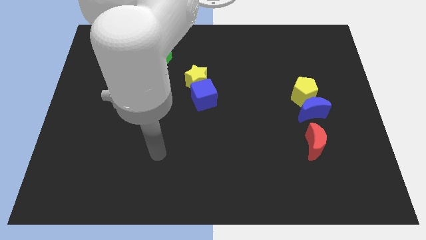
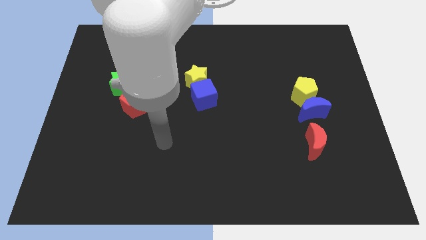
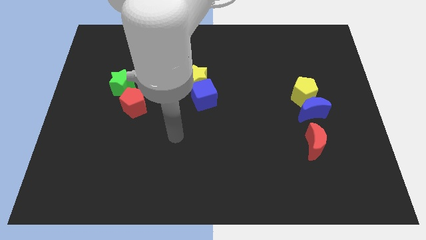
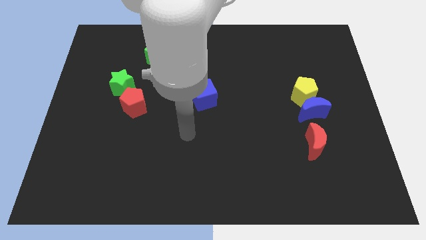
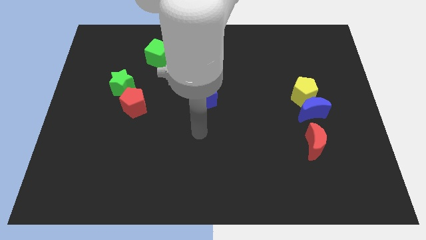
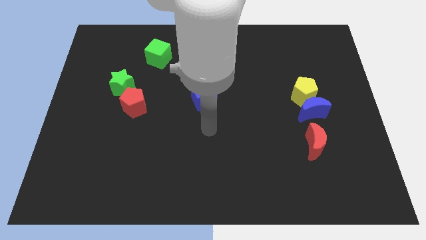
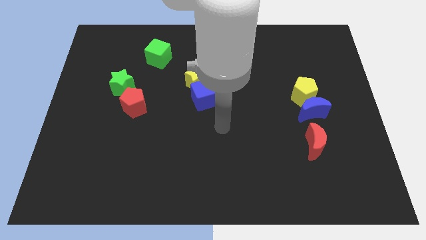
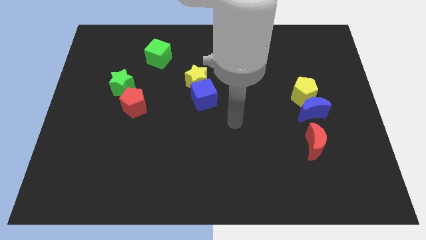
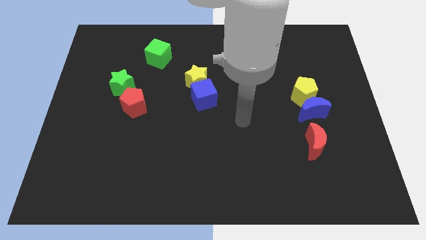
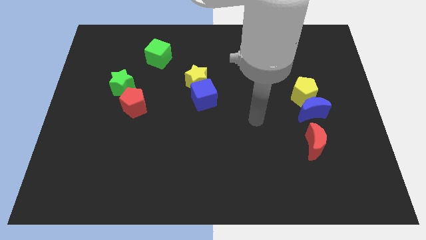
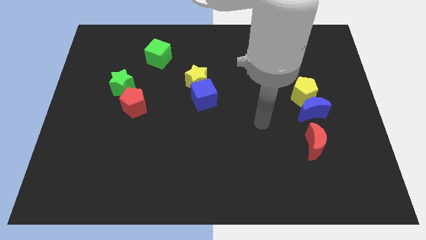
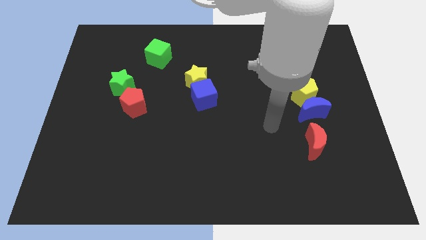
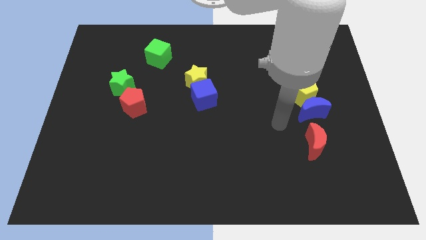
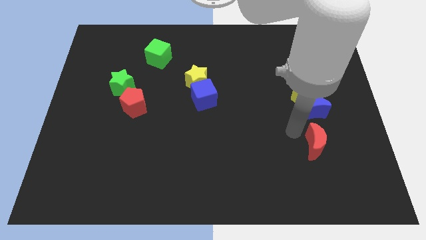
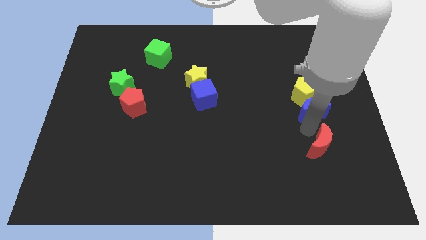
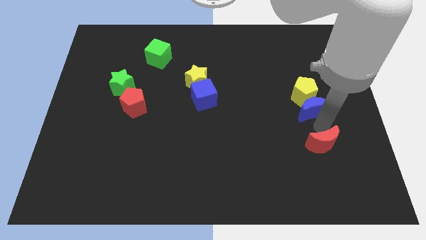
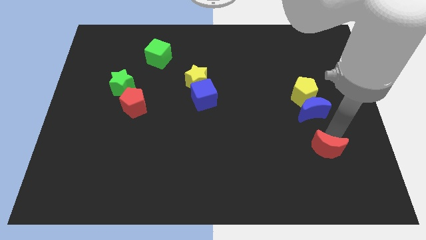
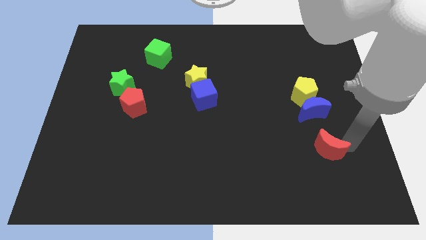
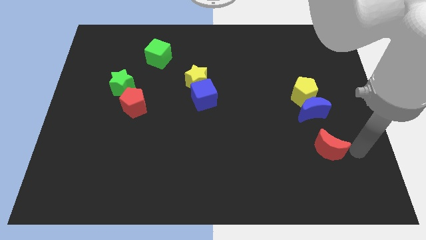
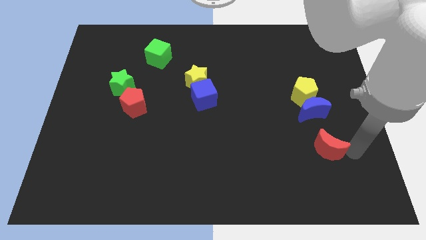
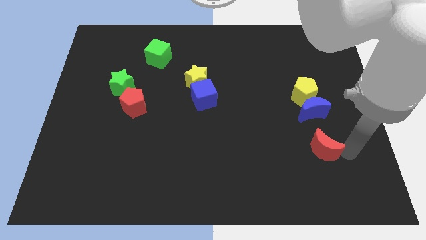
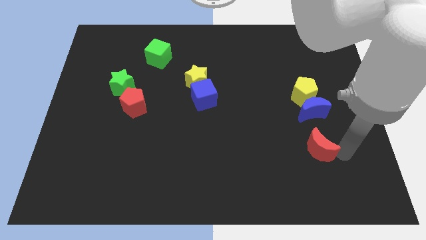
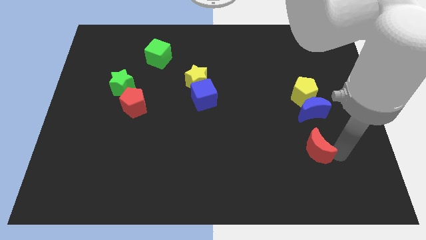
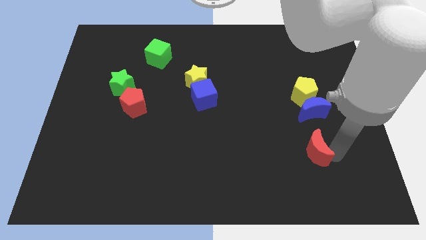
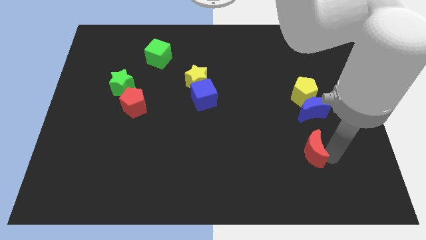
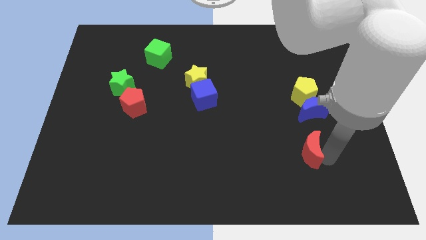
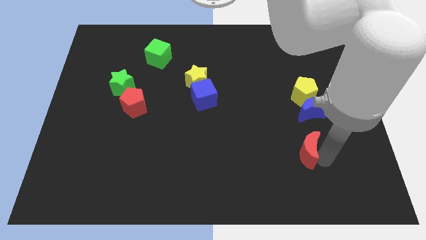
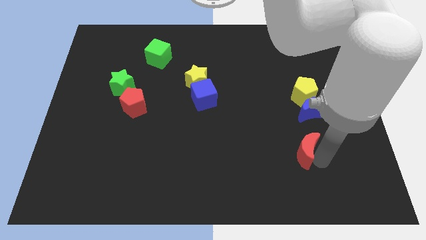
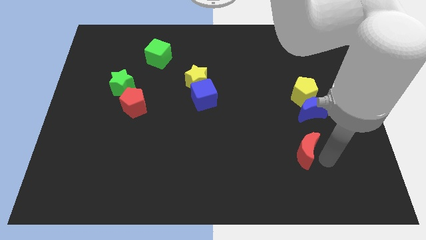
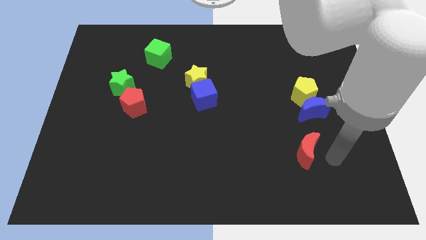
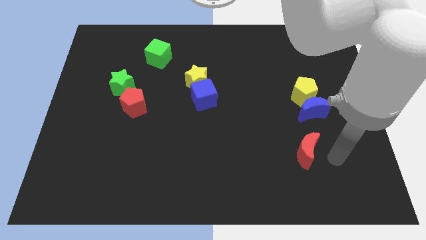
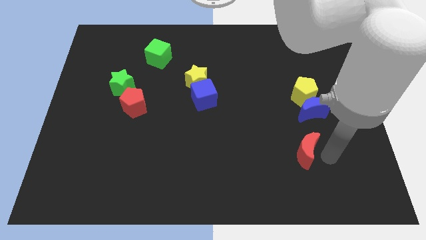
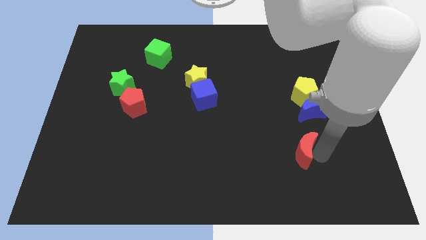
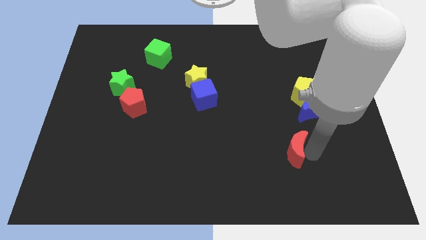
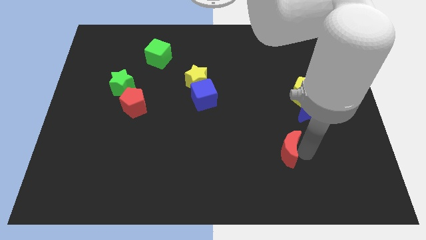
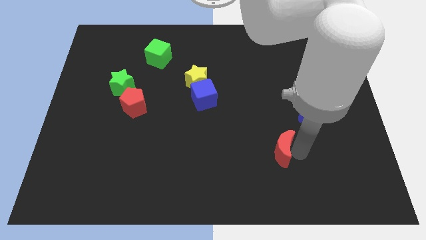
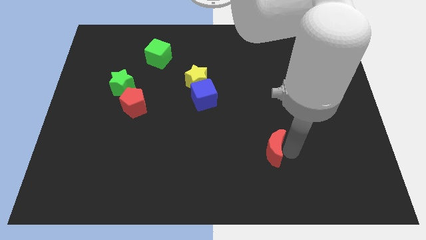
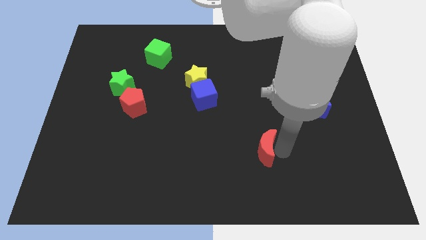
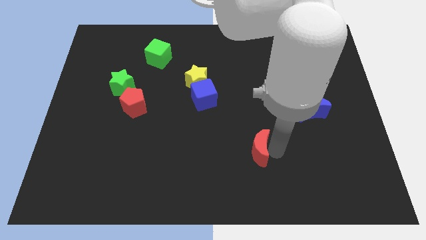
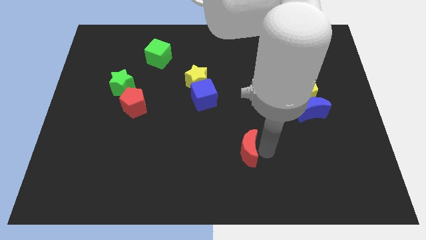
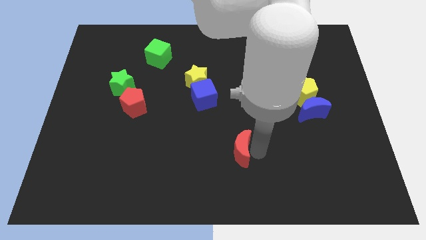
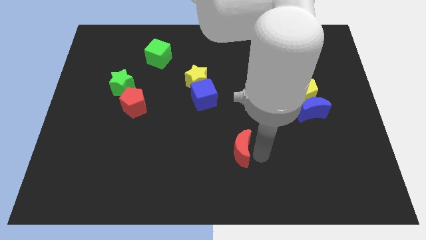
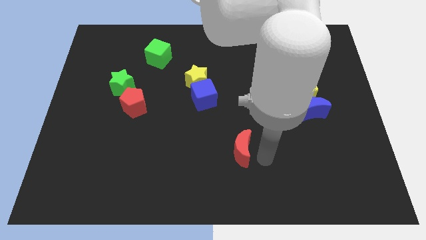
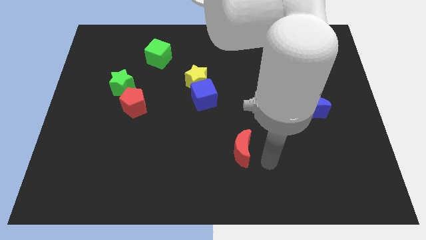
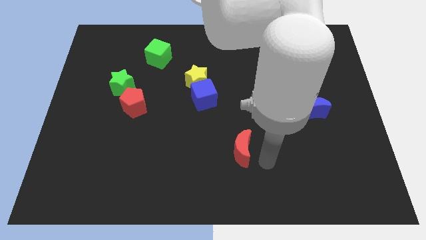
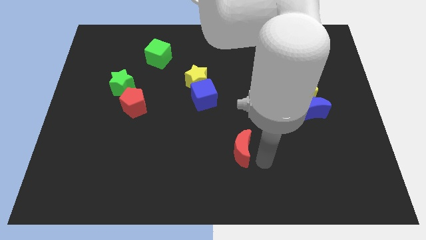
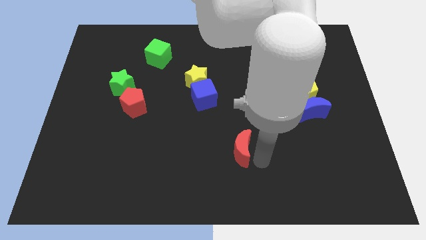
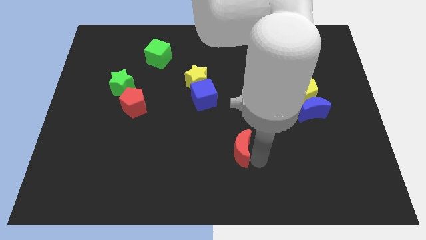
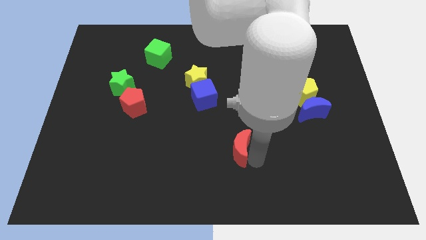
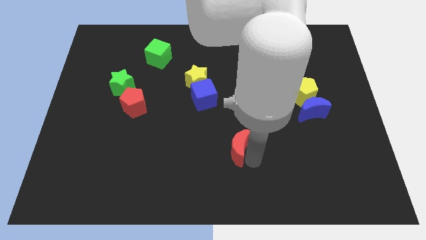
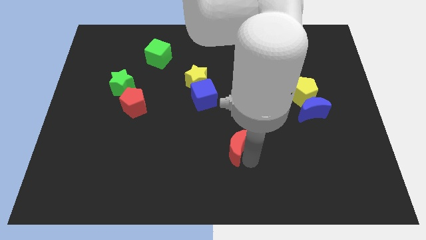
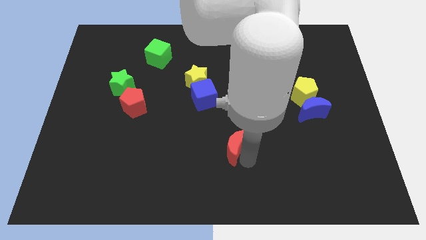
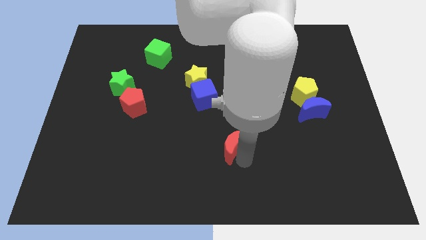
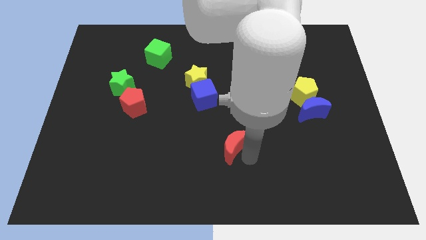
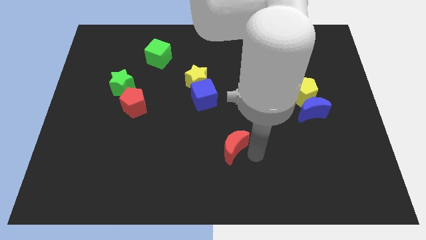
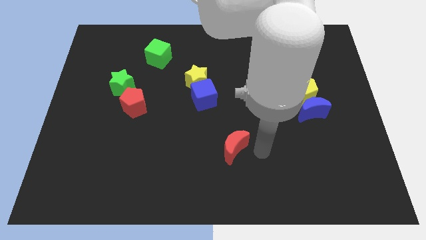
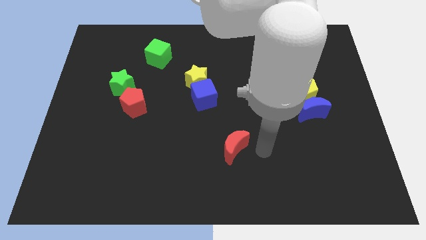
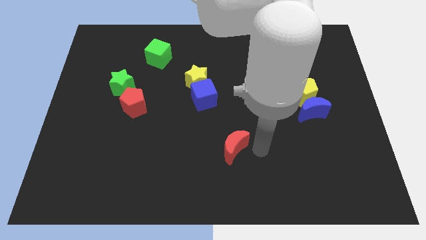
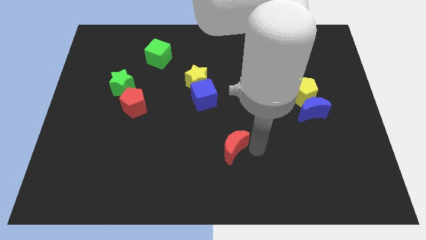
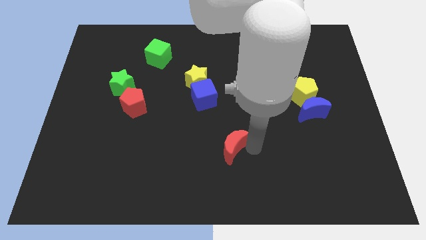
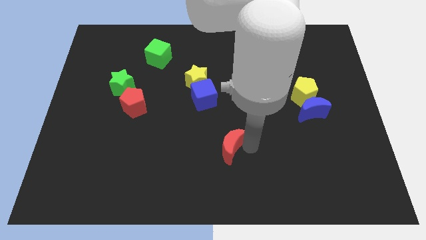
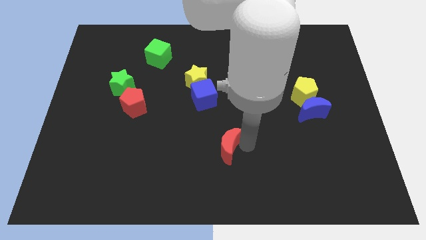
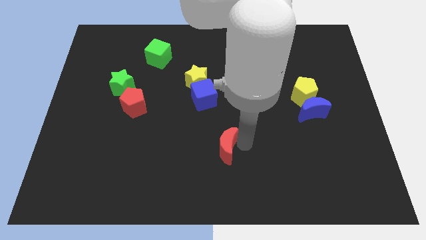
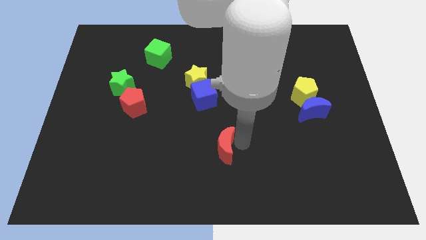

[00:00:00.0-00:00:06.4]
slide the red moon to the left

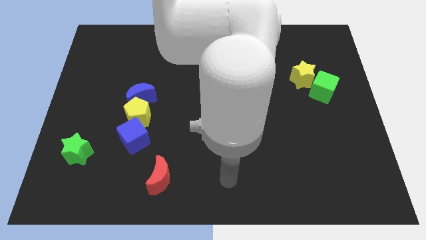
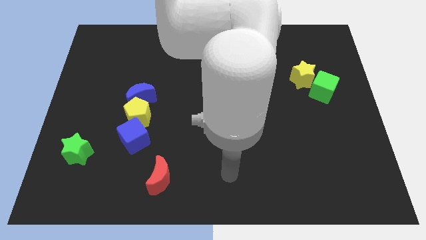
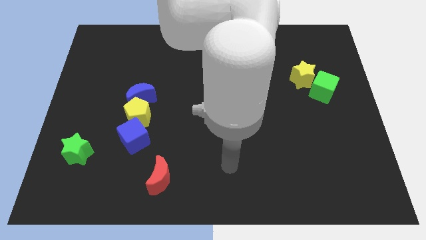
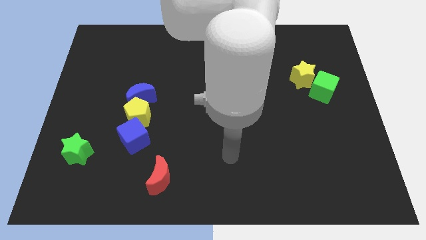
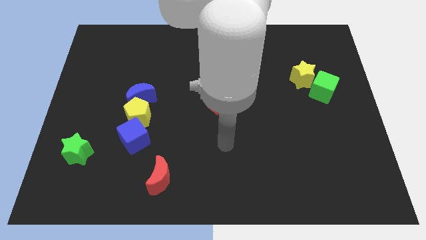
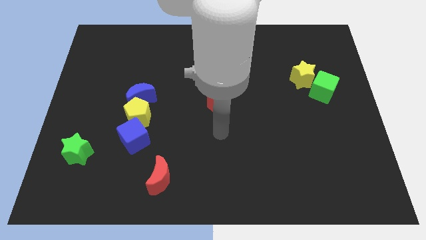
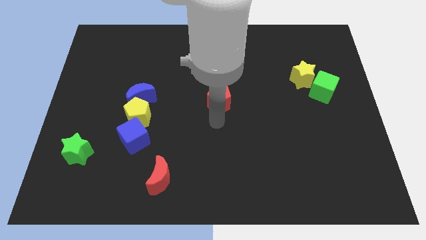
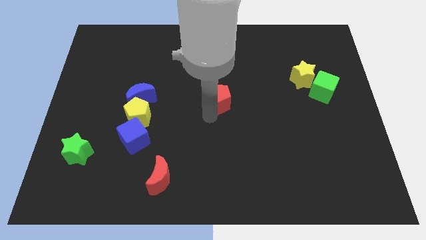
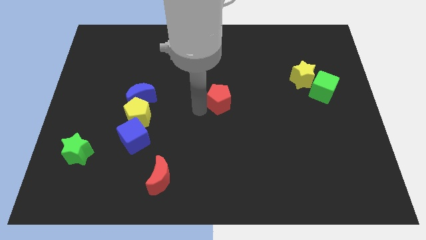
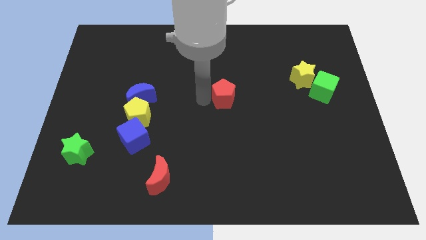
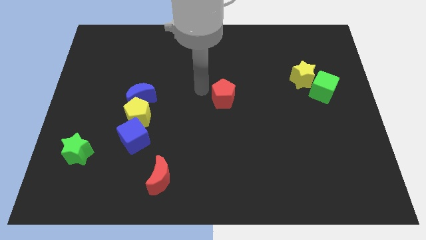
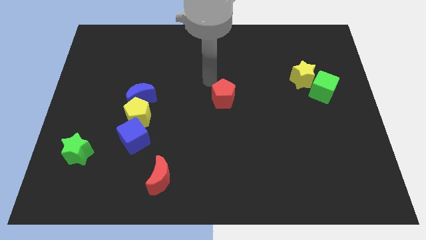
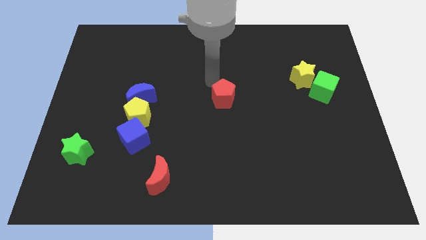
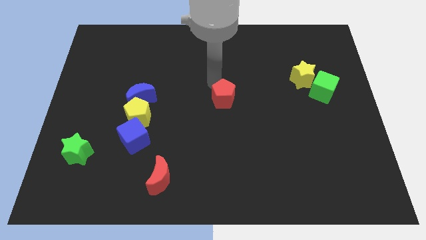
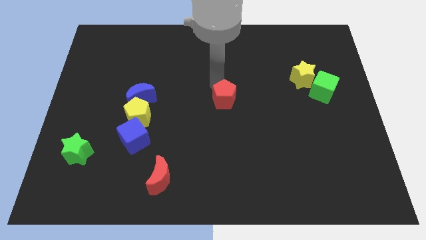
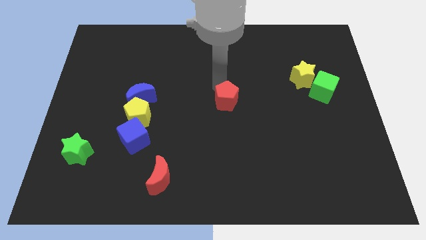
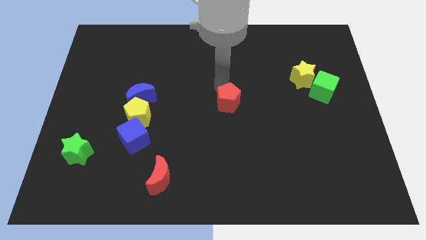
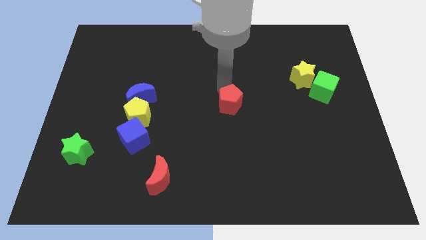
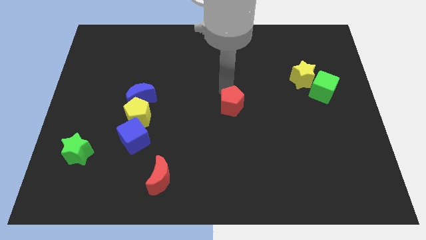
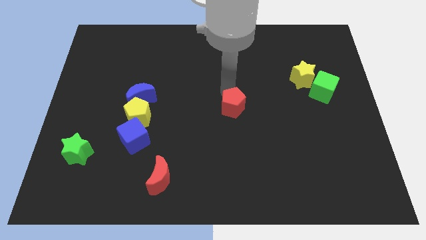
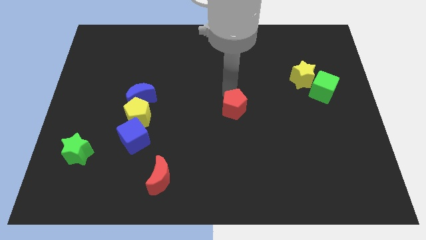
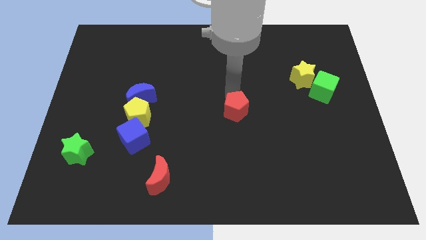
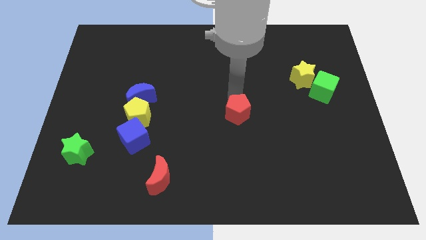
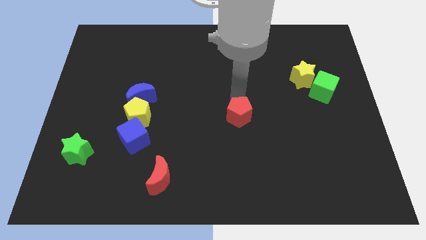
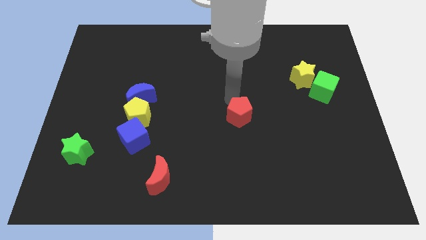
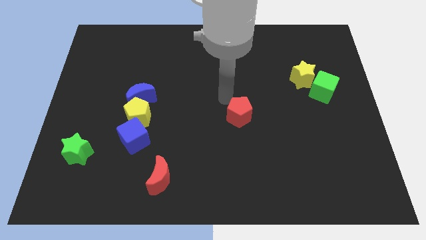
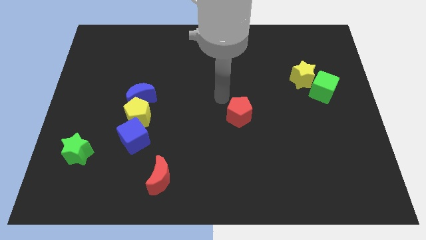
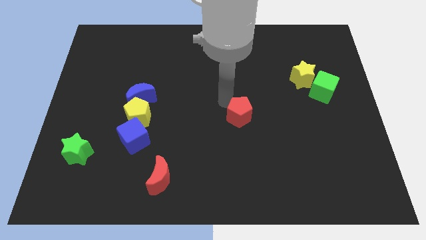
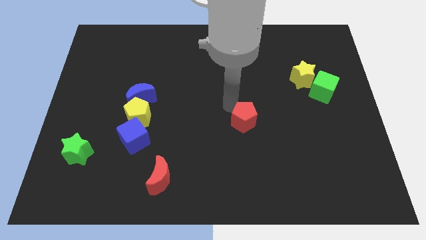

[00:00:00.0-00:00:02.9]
slide the red pentagon a little bit diagonally downwards and to the right
